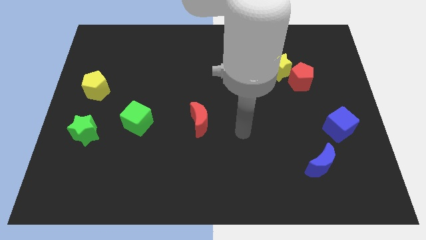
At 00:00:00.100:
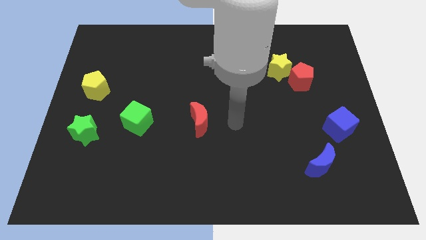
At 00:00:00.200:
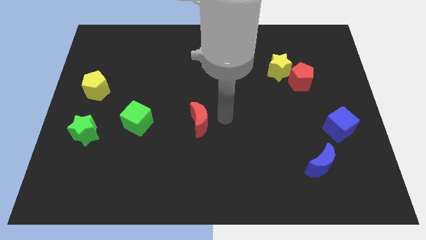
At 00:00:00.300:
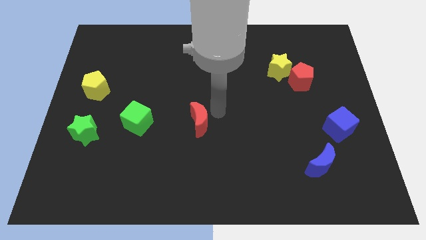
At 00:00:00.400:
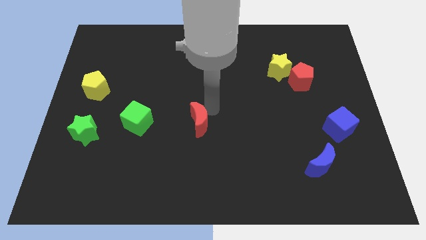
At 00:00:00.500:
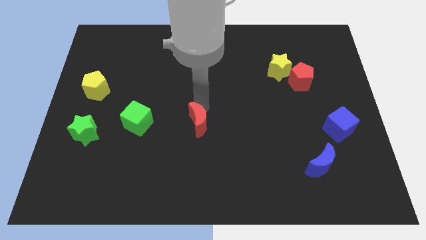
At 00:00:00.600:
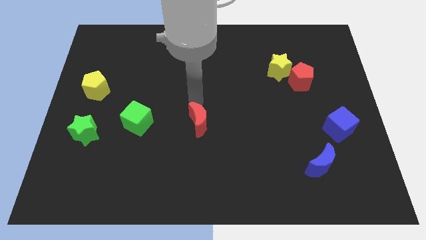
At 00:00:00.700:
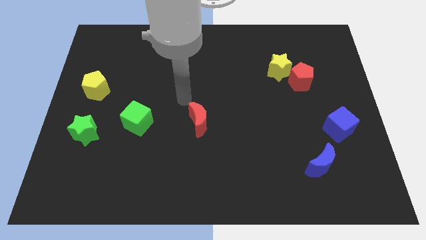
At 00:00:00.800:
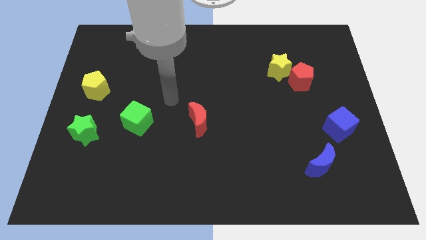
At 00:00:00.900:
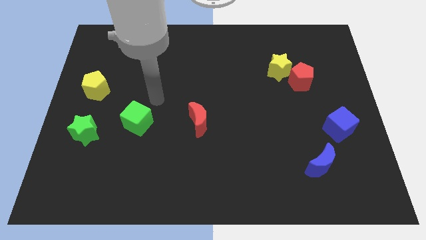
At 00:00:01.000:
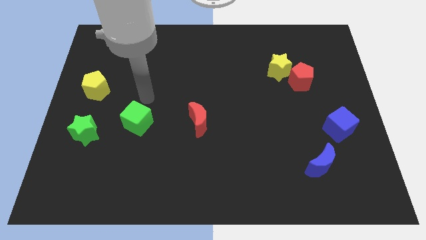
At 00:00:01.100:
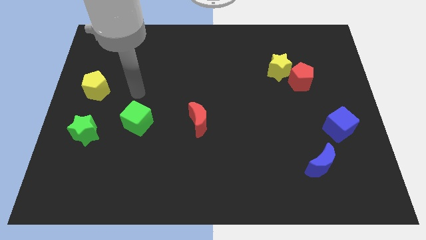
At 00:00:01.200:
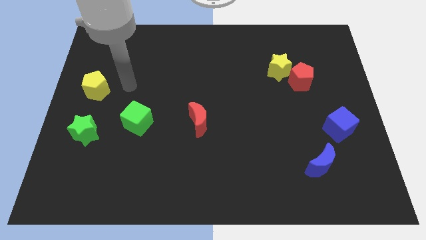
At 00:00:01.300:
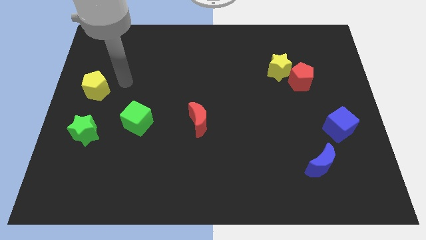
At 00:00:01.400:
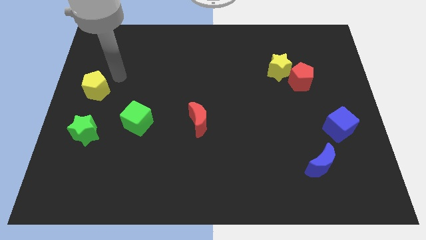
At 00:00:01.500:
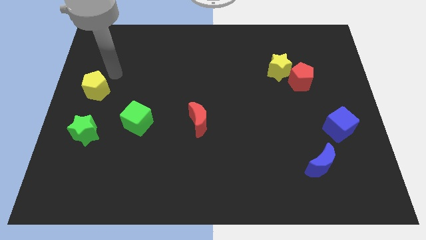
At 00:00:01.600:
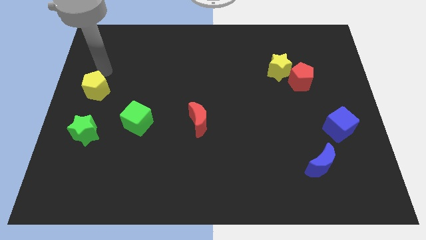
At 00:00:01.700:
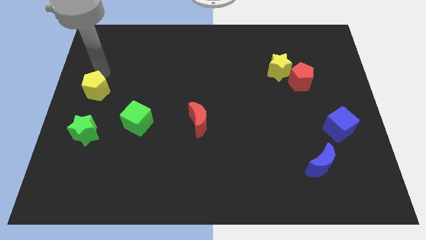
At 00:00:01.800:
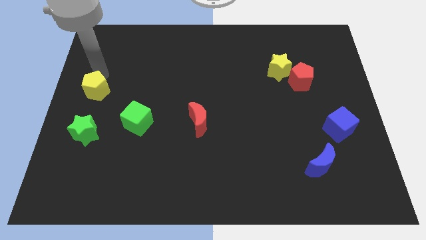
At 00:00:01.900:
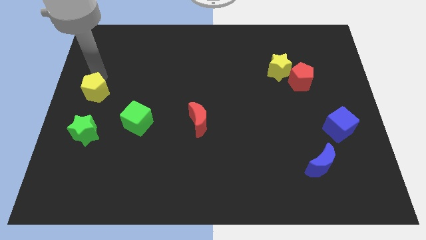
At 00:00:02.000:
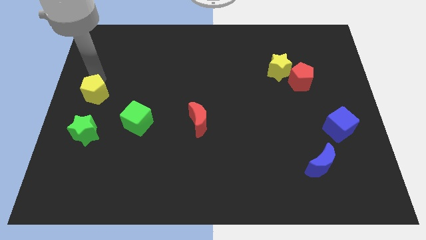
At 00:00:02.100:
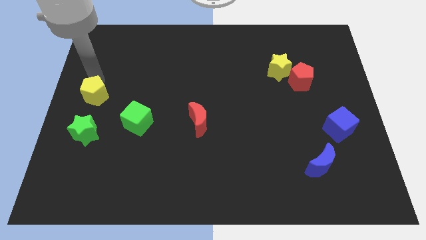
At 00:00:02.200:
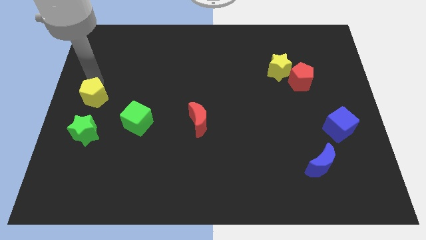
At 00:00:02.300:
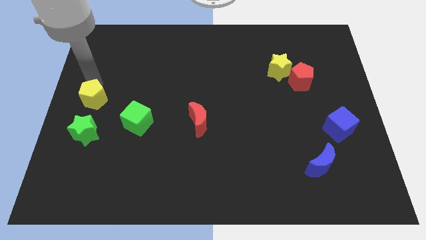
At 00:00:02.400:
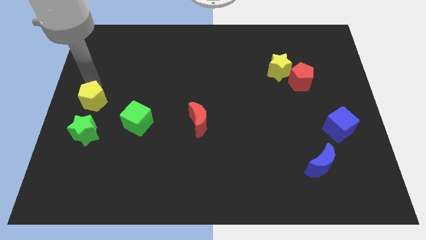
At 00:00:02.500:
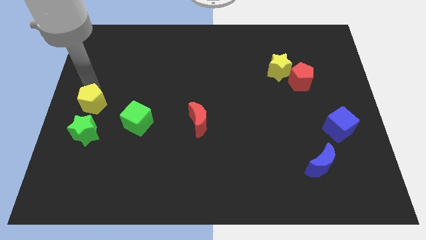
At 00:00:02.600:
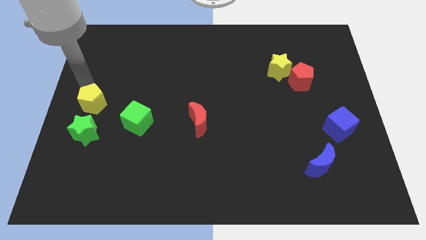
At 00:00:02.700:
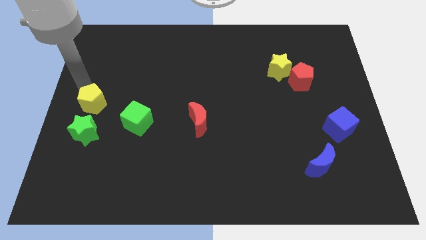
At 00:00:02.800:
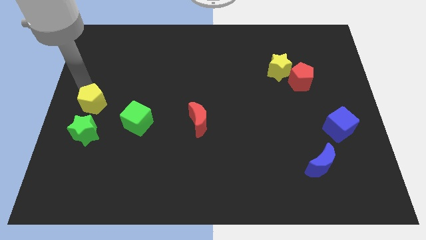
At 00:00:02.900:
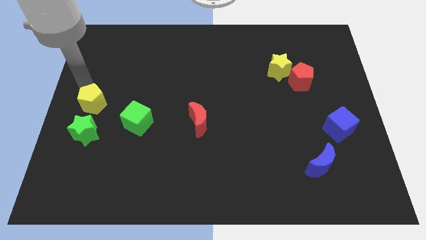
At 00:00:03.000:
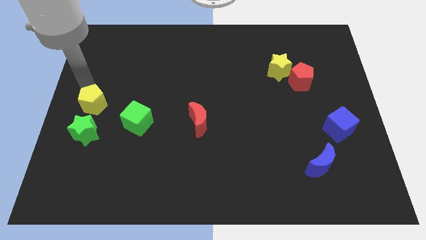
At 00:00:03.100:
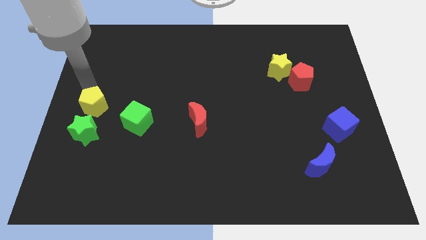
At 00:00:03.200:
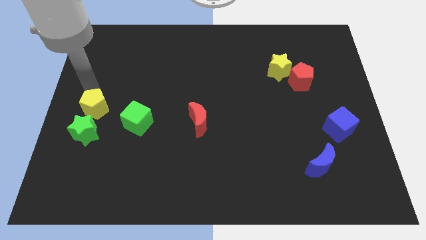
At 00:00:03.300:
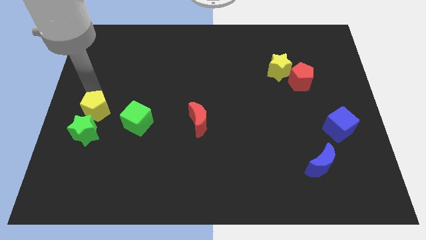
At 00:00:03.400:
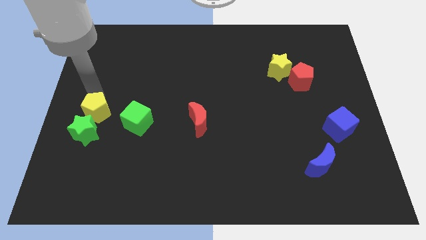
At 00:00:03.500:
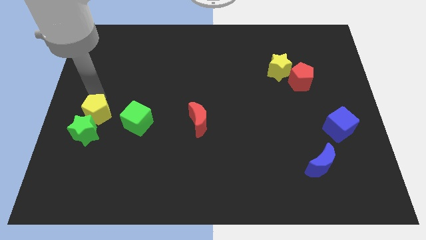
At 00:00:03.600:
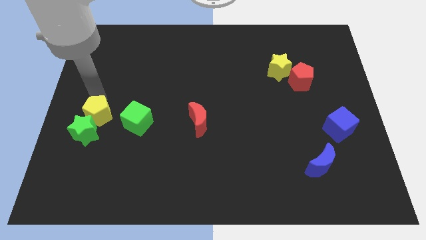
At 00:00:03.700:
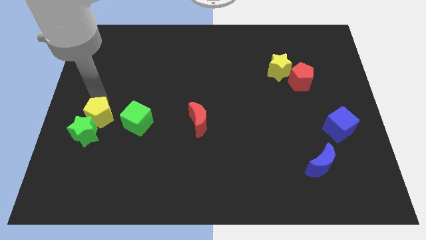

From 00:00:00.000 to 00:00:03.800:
move the yellow pentagon diagonally down and to the right a little bit

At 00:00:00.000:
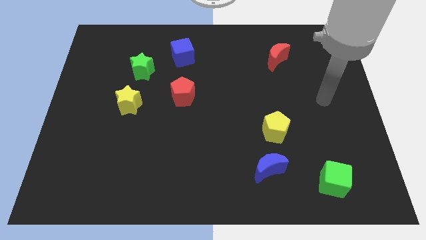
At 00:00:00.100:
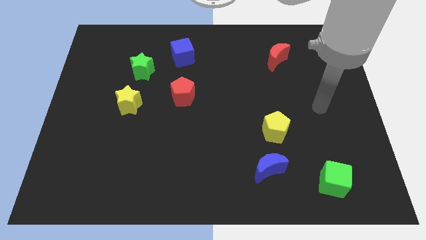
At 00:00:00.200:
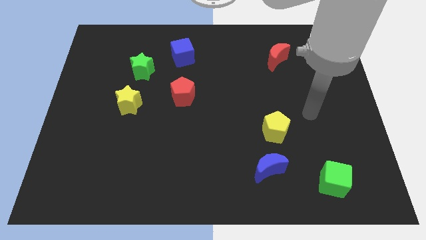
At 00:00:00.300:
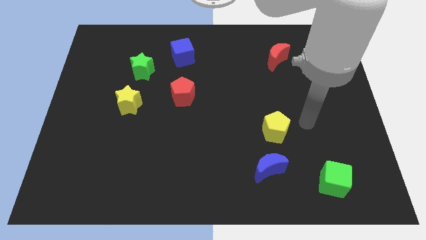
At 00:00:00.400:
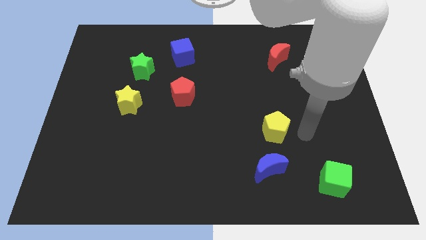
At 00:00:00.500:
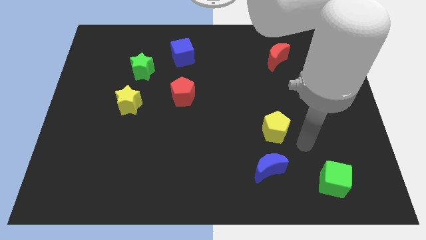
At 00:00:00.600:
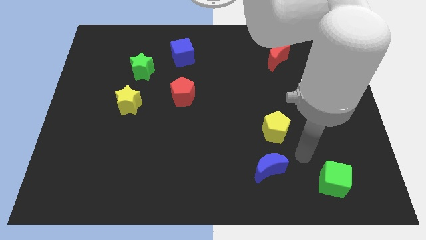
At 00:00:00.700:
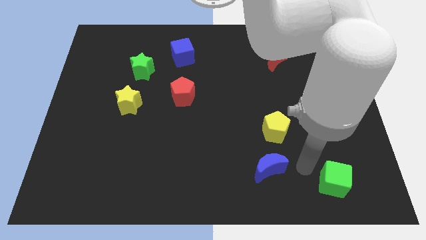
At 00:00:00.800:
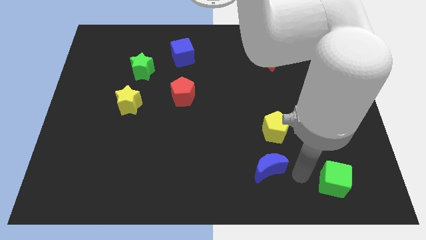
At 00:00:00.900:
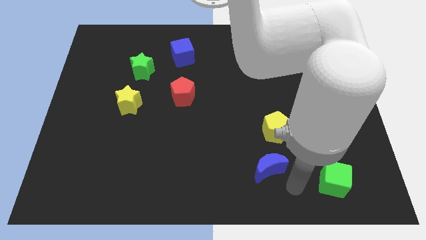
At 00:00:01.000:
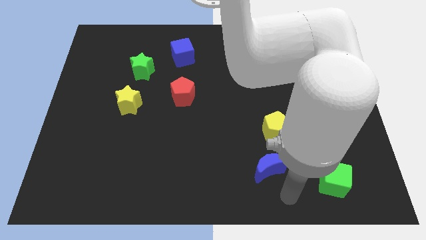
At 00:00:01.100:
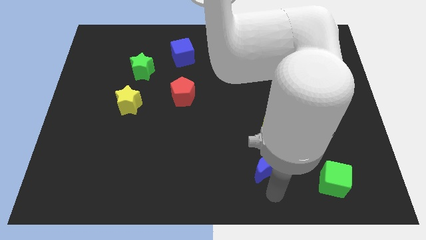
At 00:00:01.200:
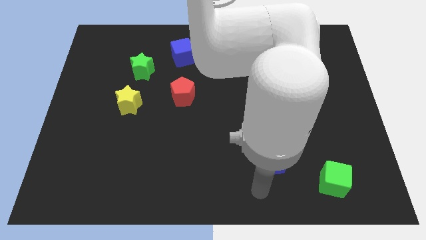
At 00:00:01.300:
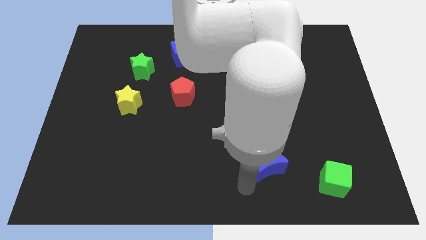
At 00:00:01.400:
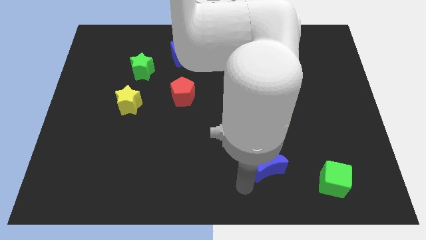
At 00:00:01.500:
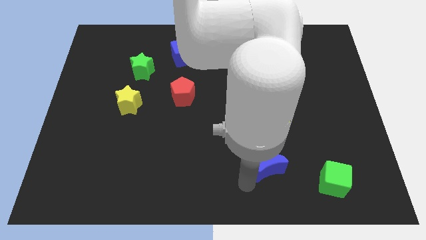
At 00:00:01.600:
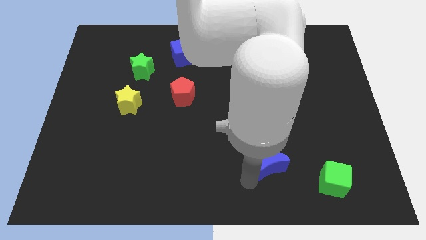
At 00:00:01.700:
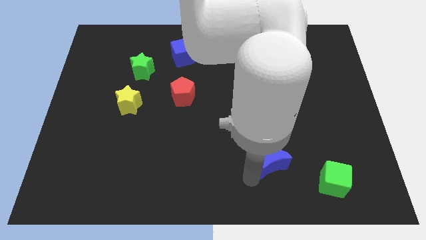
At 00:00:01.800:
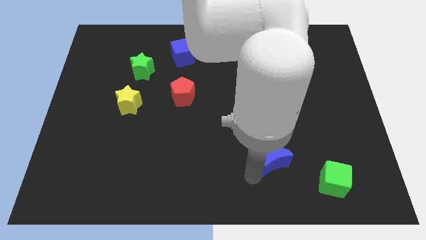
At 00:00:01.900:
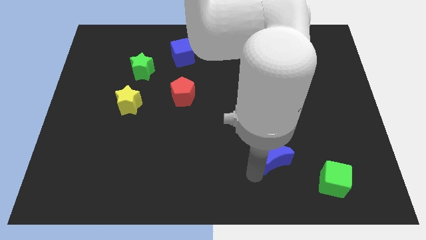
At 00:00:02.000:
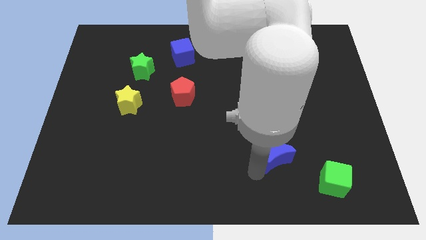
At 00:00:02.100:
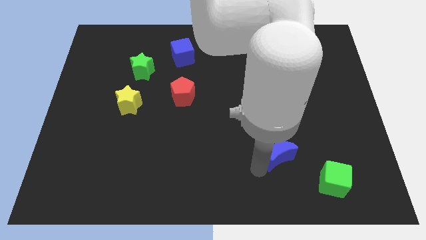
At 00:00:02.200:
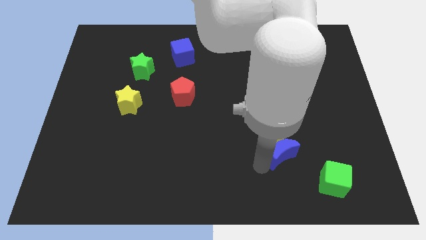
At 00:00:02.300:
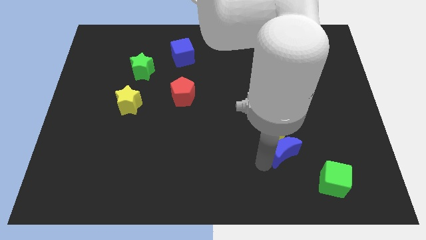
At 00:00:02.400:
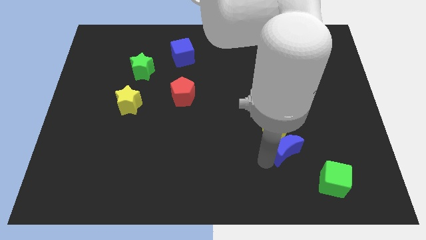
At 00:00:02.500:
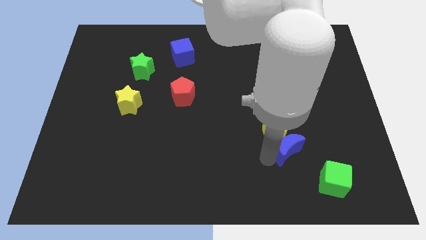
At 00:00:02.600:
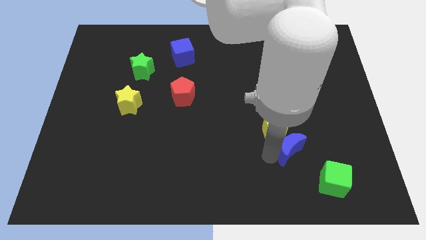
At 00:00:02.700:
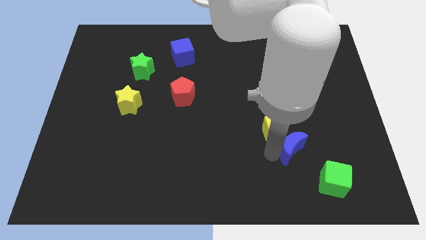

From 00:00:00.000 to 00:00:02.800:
push the blue moon up and right diagonally slightly

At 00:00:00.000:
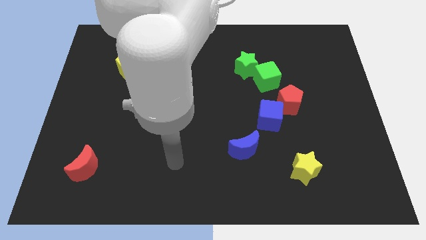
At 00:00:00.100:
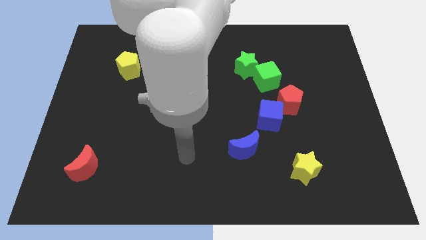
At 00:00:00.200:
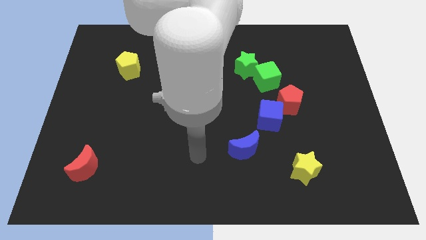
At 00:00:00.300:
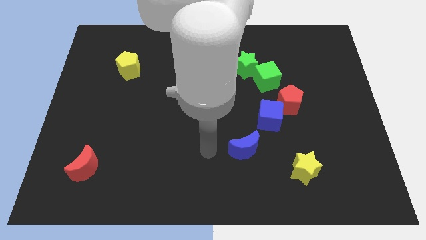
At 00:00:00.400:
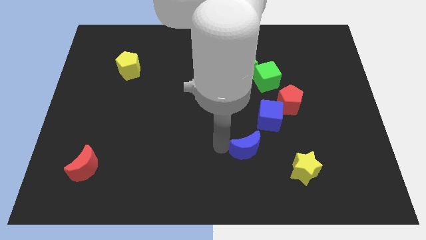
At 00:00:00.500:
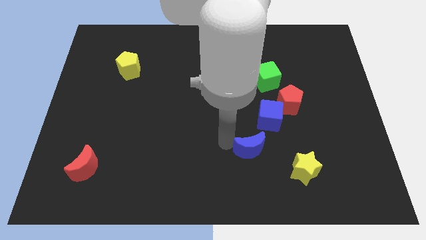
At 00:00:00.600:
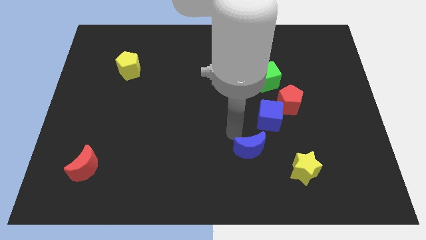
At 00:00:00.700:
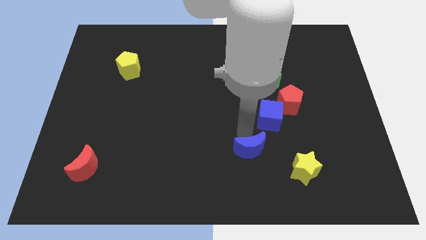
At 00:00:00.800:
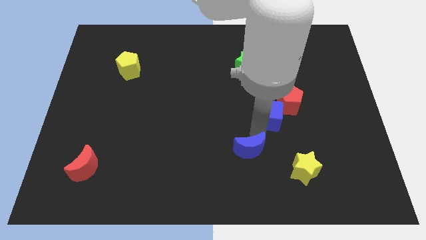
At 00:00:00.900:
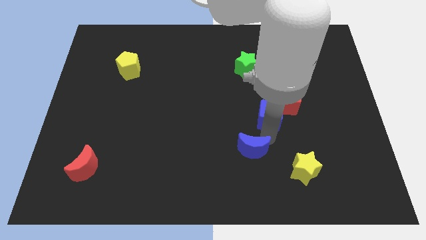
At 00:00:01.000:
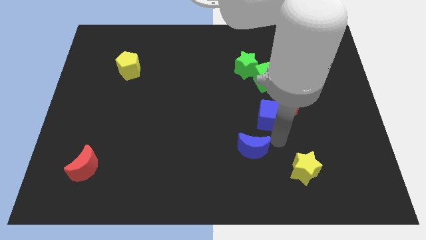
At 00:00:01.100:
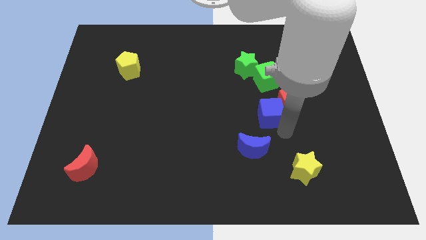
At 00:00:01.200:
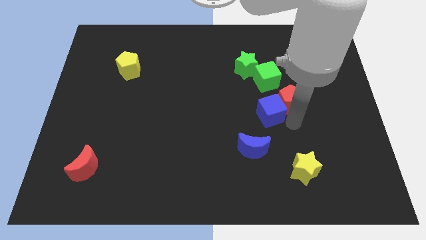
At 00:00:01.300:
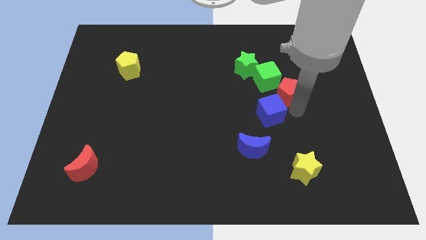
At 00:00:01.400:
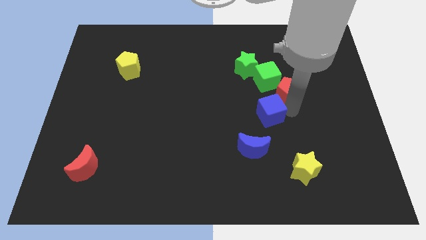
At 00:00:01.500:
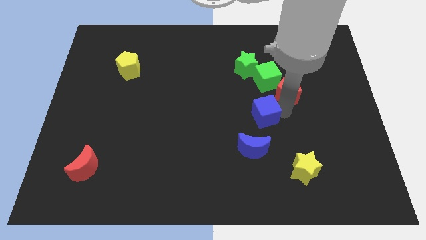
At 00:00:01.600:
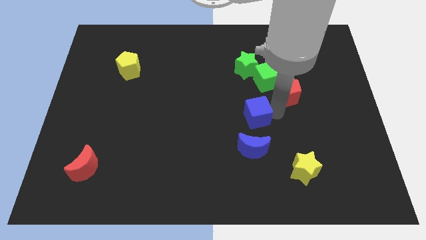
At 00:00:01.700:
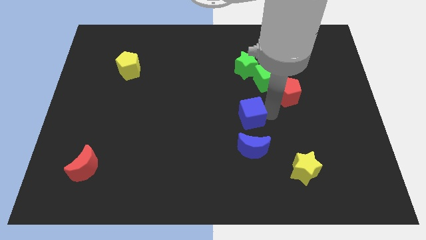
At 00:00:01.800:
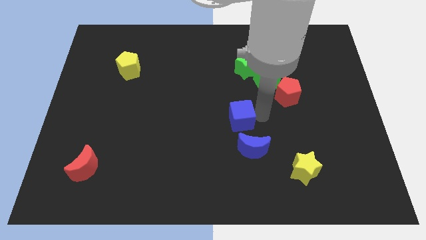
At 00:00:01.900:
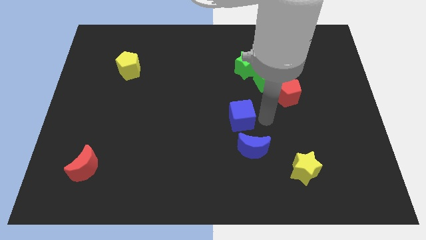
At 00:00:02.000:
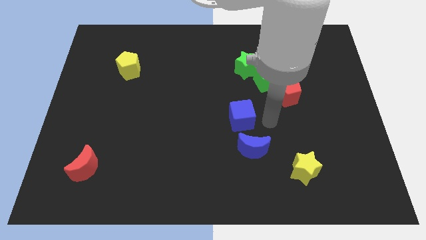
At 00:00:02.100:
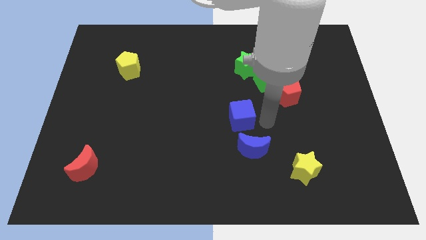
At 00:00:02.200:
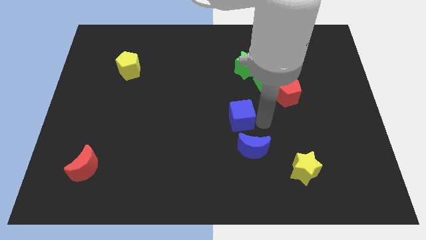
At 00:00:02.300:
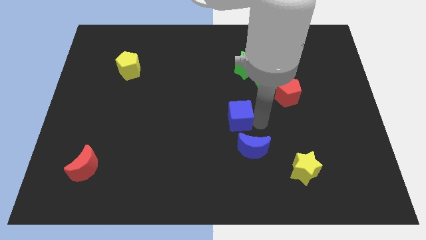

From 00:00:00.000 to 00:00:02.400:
push the blue cube to the left somewhat
